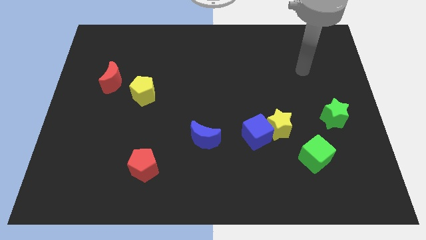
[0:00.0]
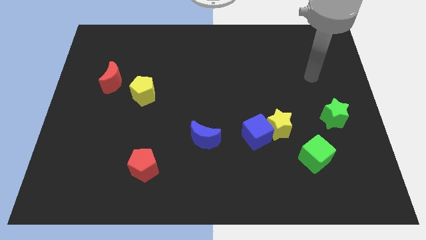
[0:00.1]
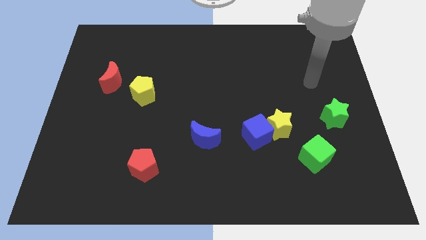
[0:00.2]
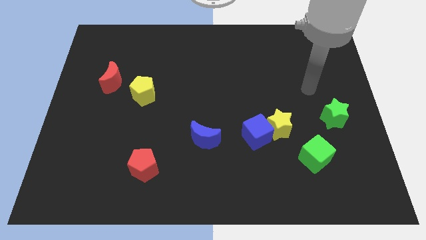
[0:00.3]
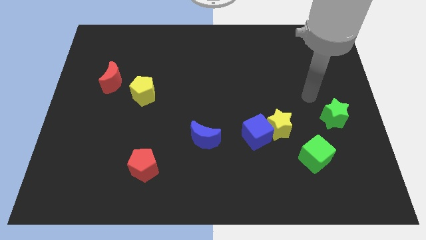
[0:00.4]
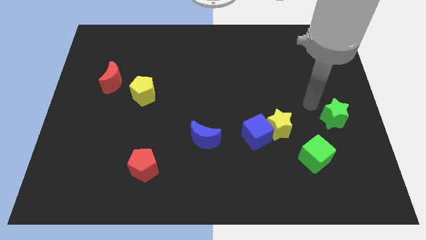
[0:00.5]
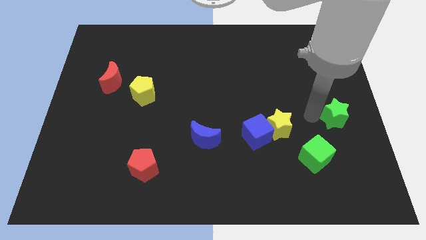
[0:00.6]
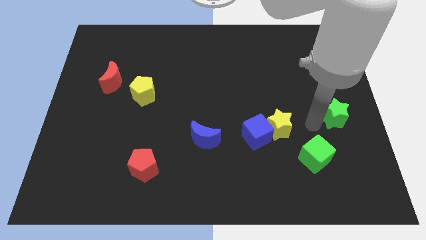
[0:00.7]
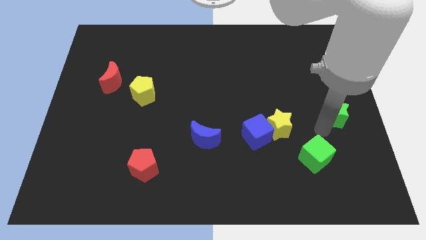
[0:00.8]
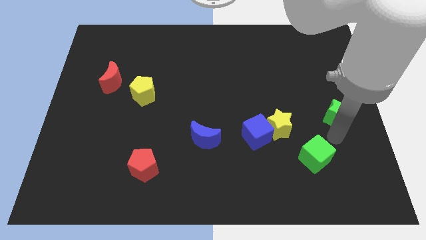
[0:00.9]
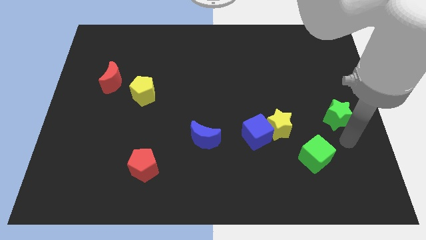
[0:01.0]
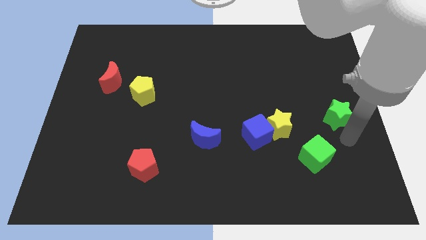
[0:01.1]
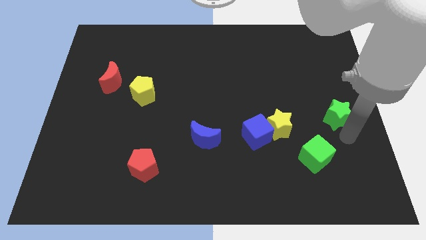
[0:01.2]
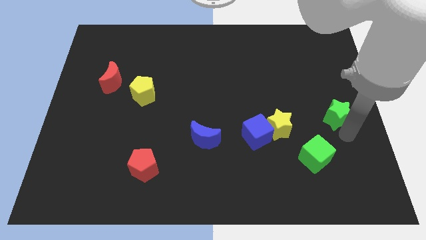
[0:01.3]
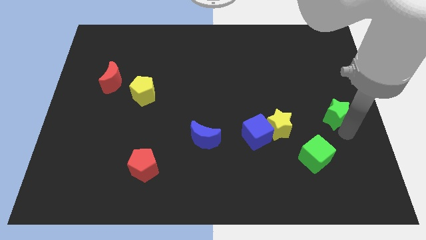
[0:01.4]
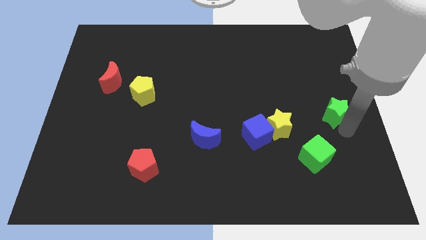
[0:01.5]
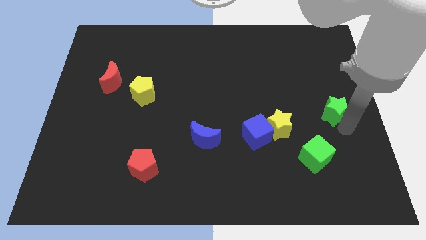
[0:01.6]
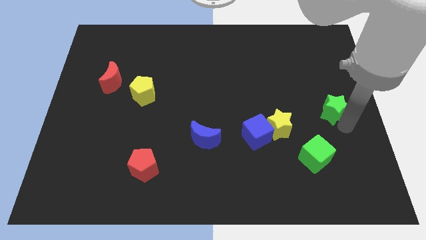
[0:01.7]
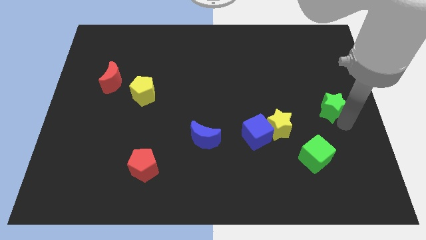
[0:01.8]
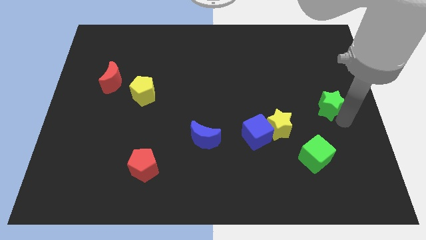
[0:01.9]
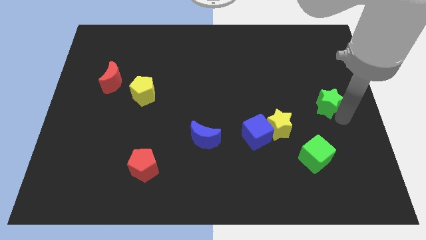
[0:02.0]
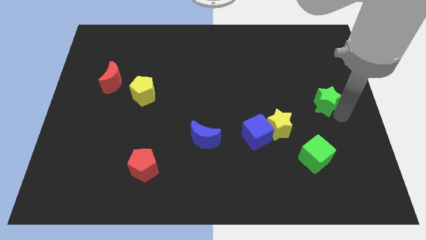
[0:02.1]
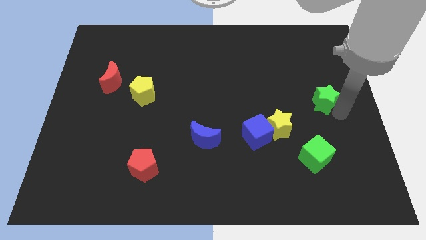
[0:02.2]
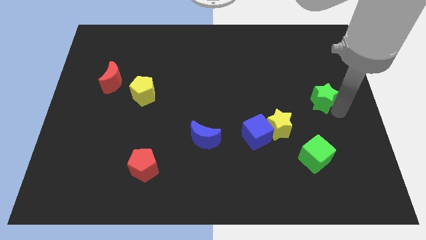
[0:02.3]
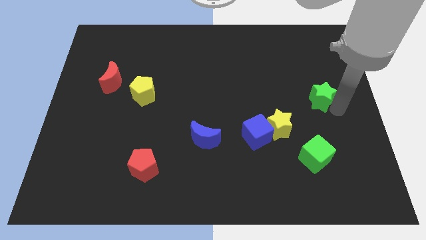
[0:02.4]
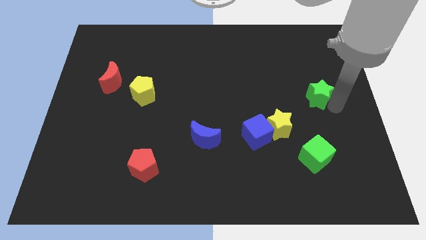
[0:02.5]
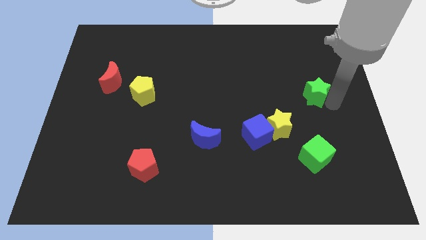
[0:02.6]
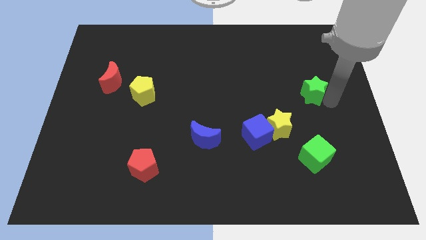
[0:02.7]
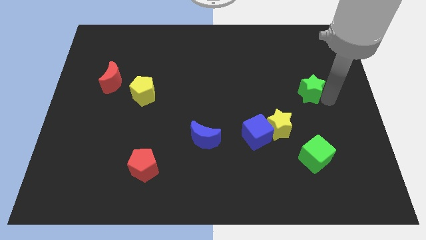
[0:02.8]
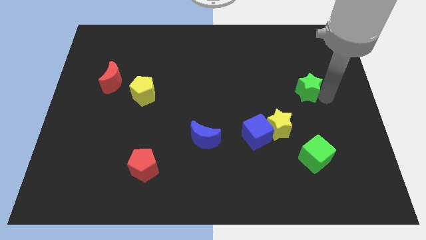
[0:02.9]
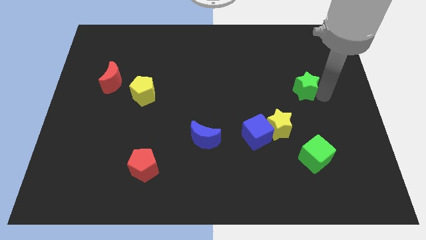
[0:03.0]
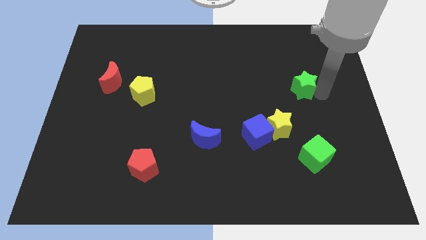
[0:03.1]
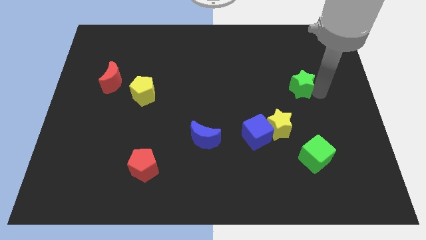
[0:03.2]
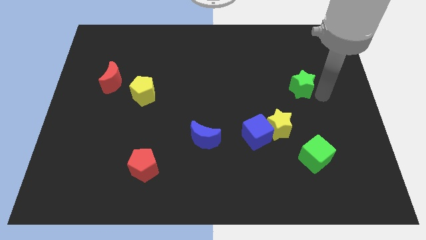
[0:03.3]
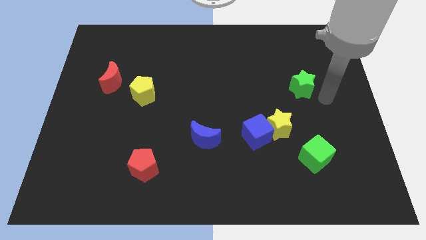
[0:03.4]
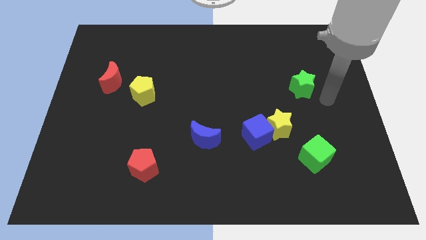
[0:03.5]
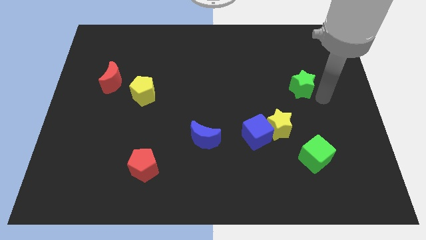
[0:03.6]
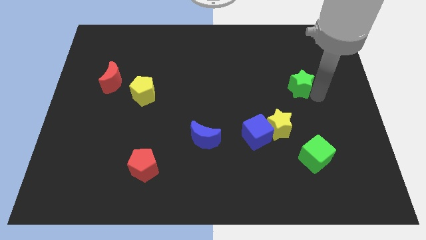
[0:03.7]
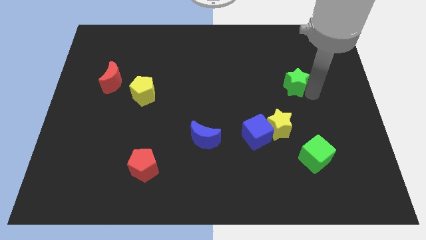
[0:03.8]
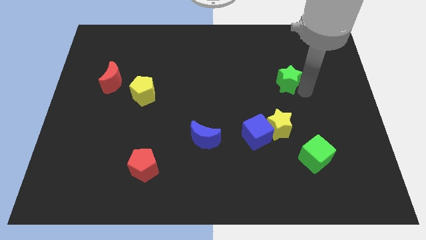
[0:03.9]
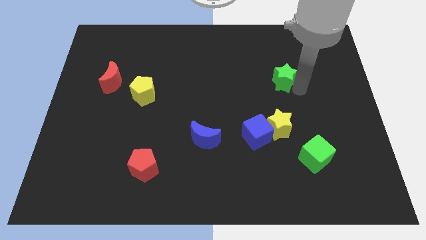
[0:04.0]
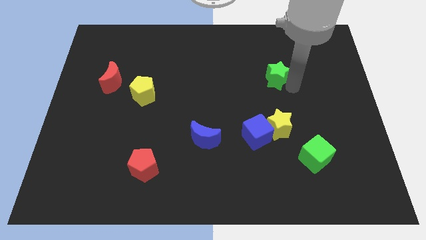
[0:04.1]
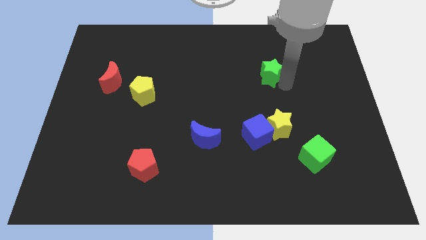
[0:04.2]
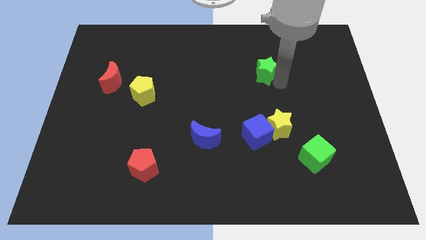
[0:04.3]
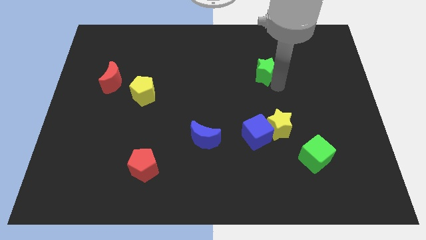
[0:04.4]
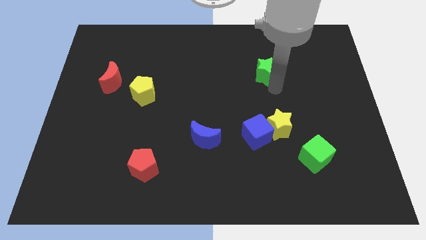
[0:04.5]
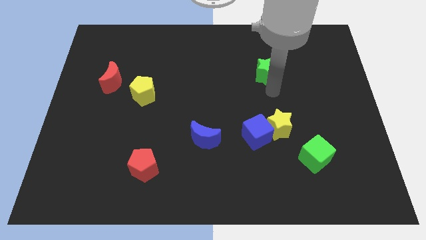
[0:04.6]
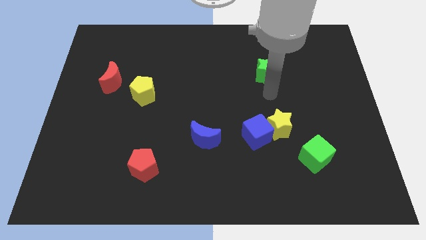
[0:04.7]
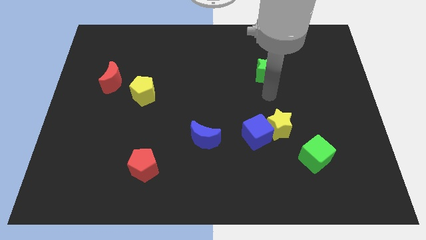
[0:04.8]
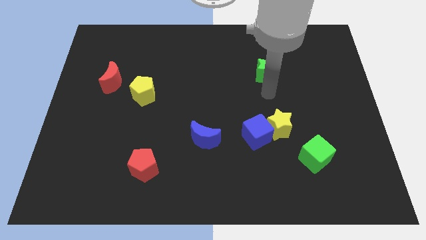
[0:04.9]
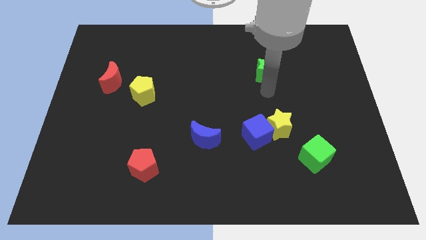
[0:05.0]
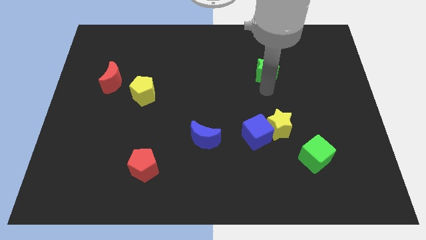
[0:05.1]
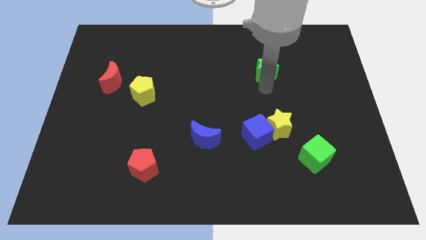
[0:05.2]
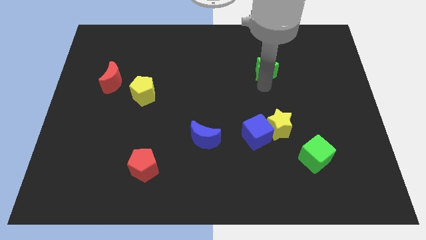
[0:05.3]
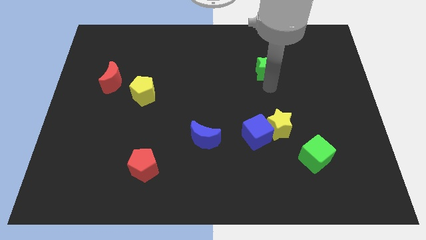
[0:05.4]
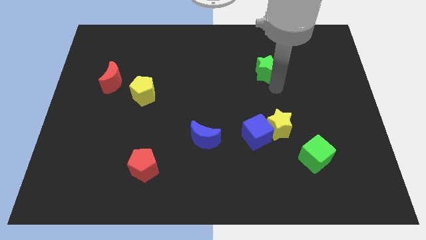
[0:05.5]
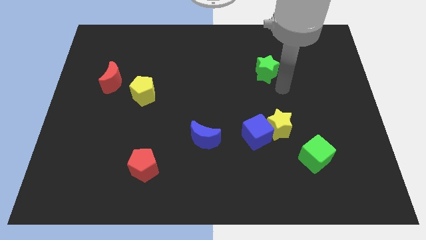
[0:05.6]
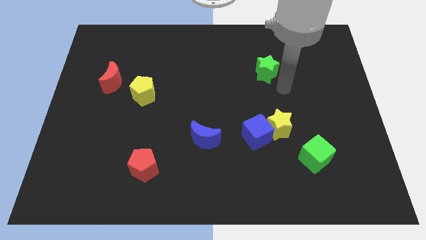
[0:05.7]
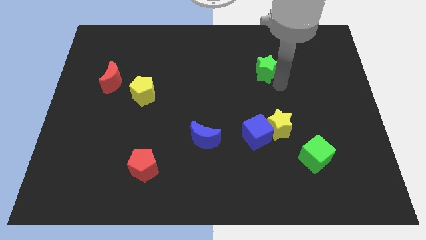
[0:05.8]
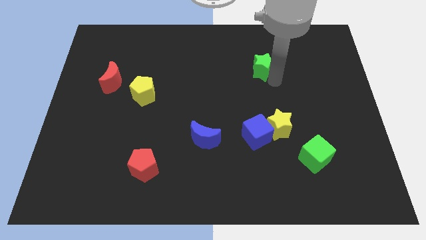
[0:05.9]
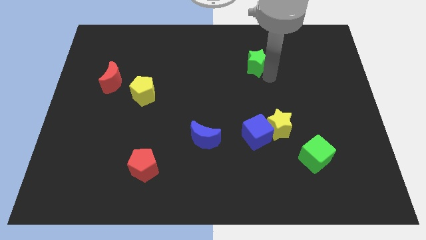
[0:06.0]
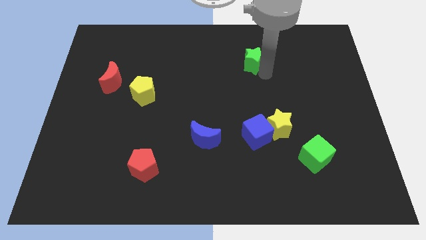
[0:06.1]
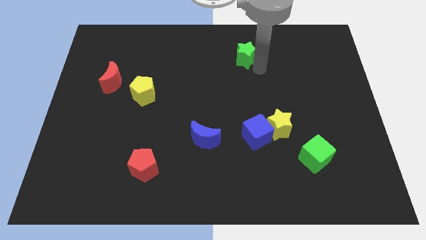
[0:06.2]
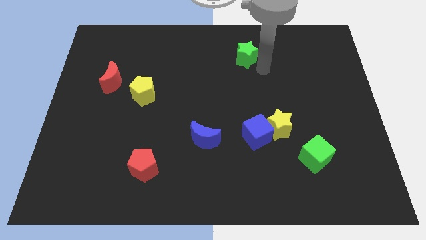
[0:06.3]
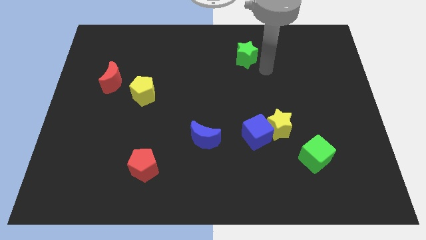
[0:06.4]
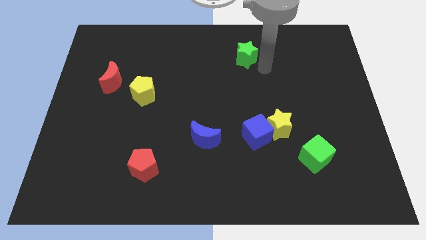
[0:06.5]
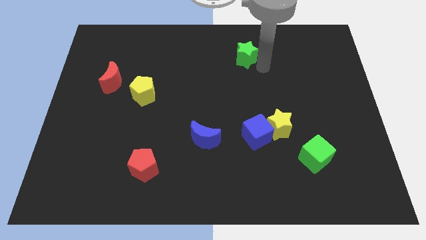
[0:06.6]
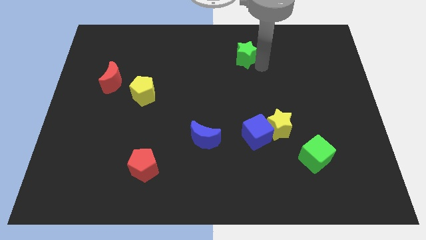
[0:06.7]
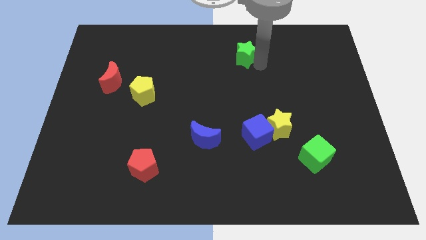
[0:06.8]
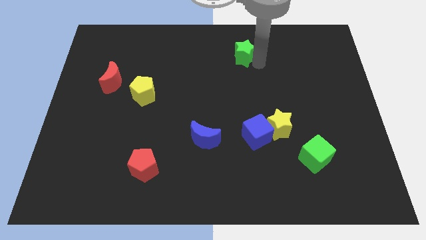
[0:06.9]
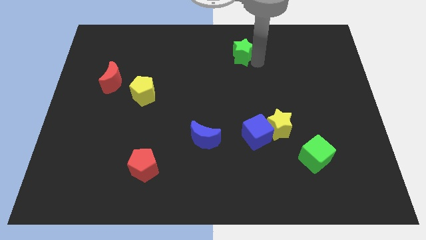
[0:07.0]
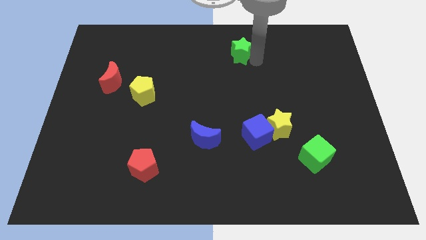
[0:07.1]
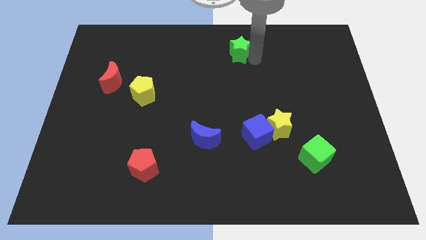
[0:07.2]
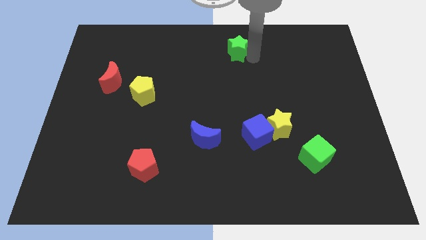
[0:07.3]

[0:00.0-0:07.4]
move the green star to the towards your base
